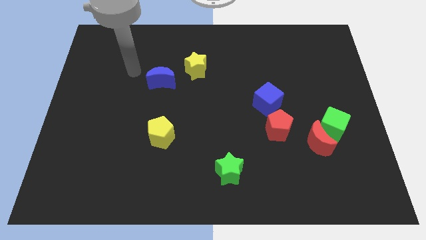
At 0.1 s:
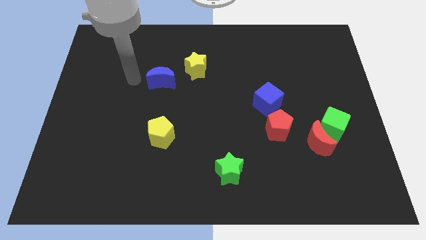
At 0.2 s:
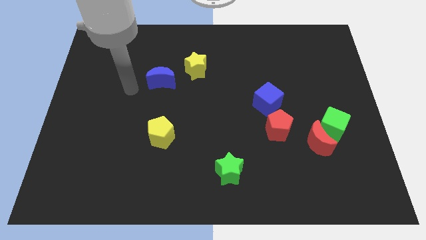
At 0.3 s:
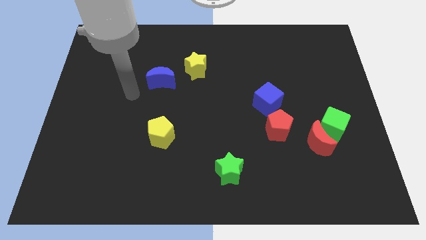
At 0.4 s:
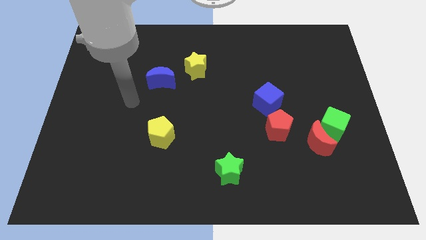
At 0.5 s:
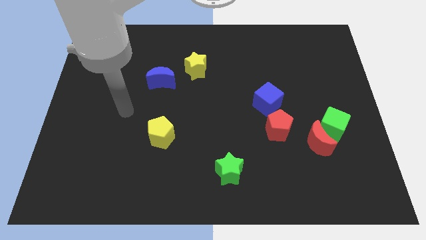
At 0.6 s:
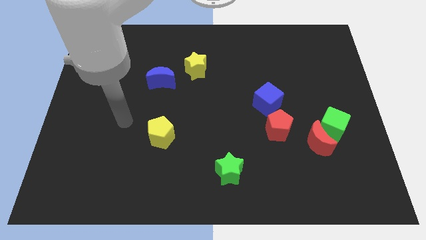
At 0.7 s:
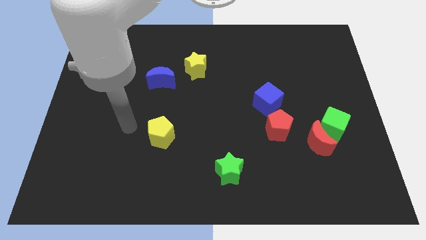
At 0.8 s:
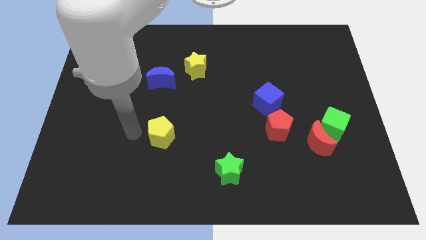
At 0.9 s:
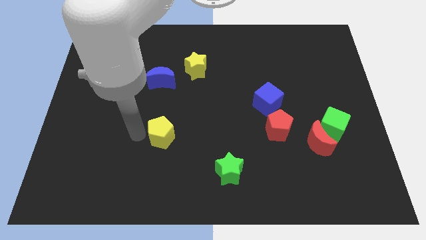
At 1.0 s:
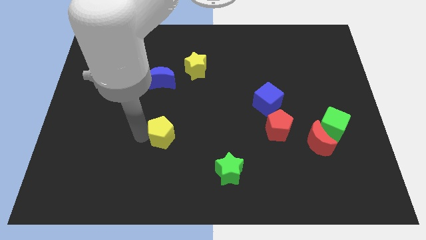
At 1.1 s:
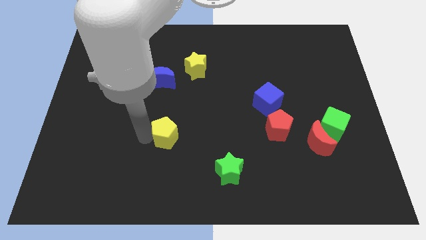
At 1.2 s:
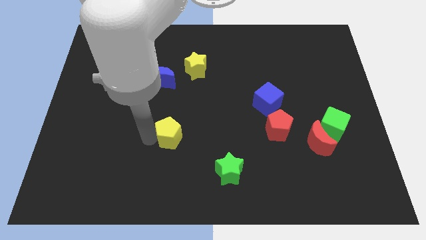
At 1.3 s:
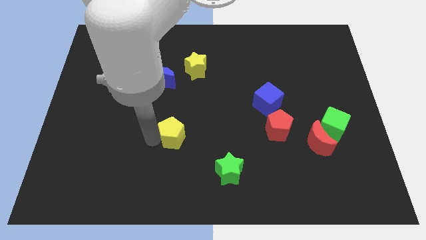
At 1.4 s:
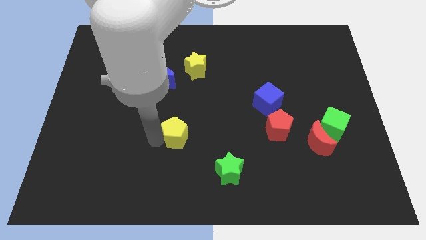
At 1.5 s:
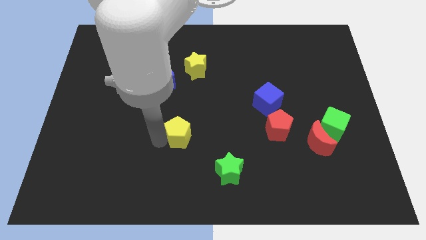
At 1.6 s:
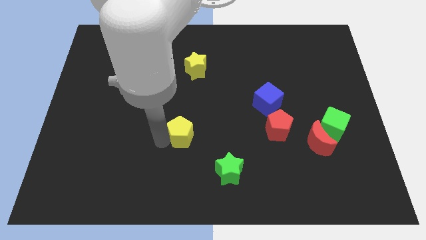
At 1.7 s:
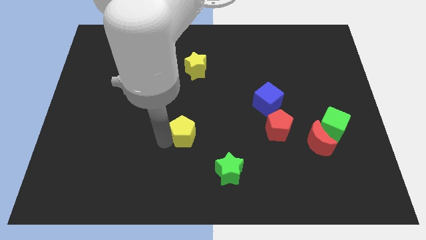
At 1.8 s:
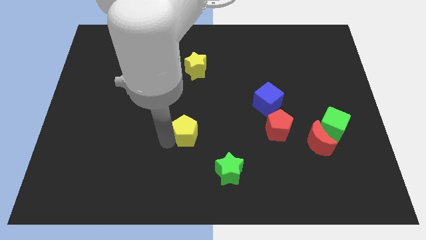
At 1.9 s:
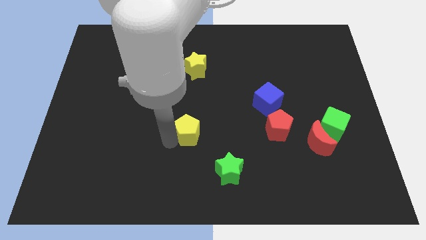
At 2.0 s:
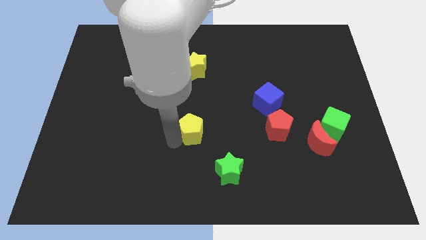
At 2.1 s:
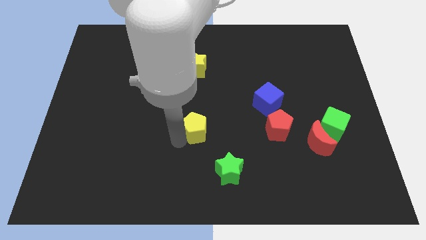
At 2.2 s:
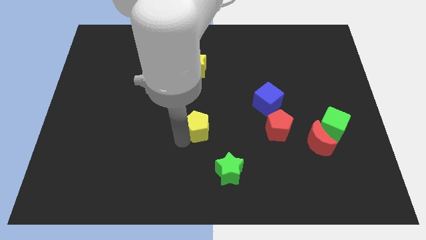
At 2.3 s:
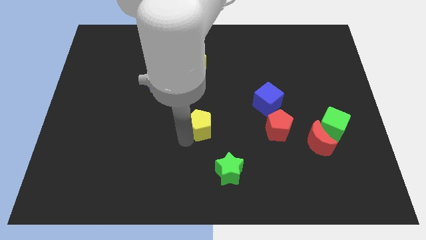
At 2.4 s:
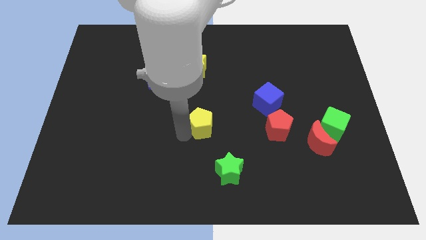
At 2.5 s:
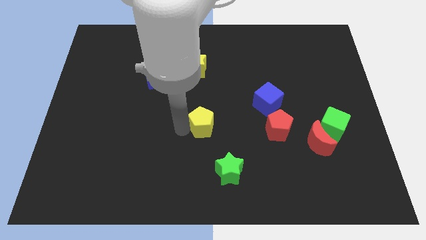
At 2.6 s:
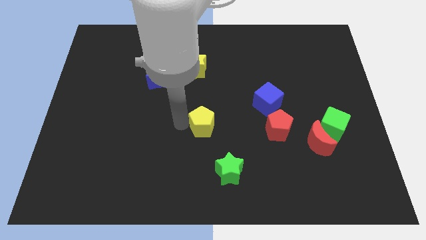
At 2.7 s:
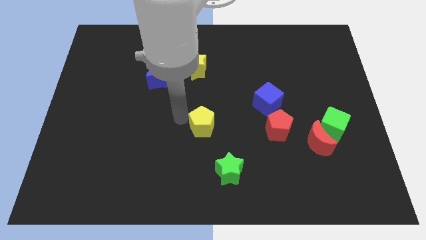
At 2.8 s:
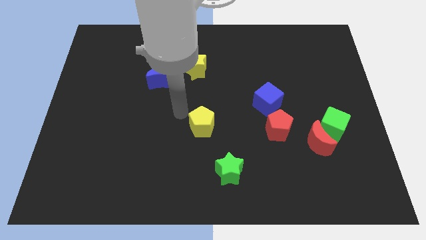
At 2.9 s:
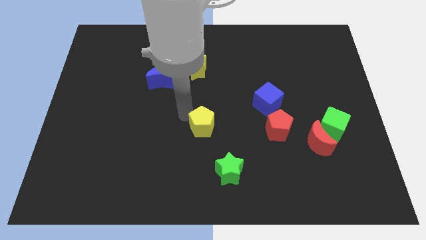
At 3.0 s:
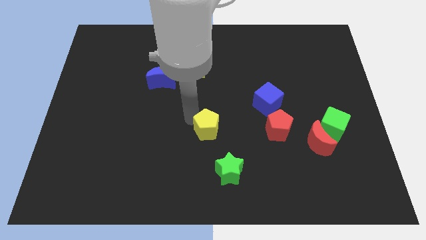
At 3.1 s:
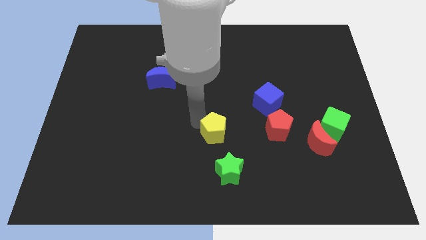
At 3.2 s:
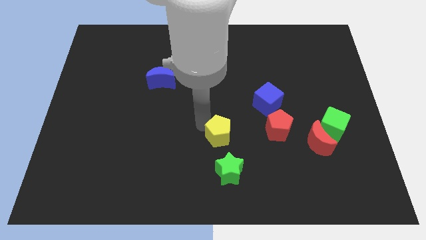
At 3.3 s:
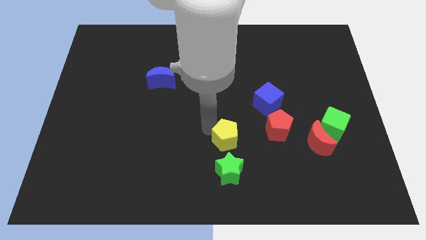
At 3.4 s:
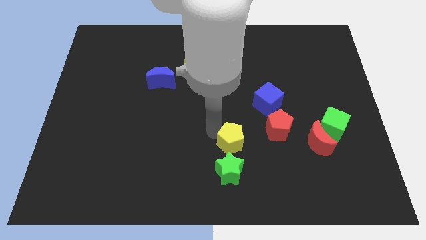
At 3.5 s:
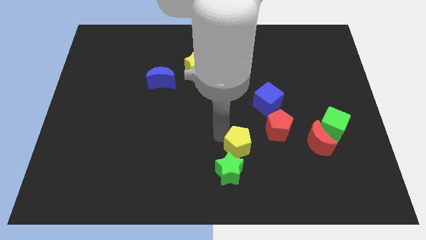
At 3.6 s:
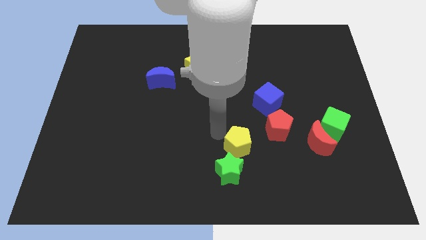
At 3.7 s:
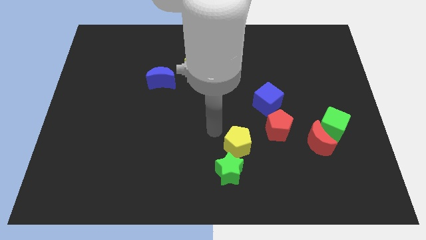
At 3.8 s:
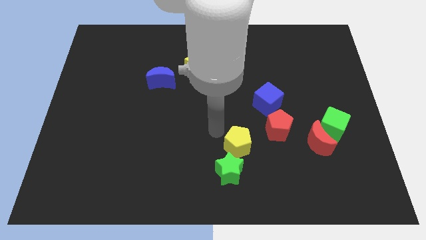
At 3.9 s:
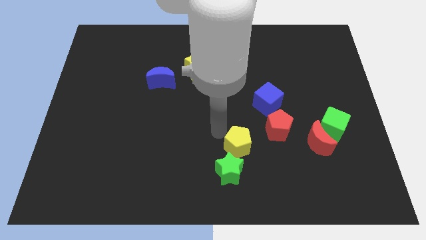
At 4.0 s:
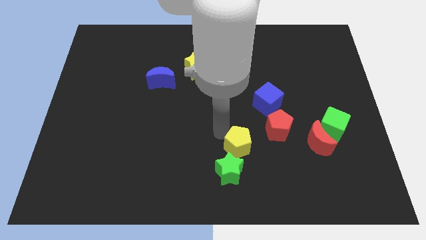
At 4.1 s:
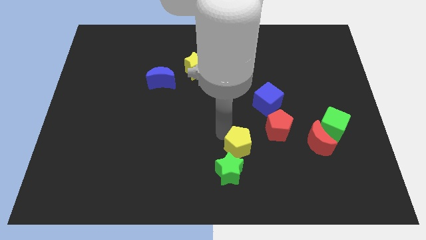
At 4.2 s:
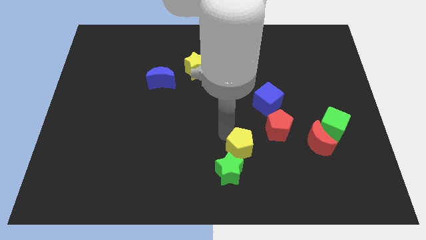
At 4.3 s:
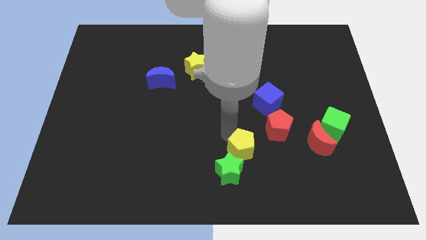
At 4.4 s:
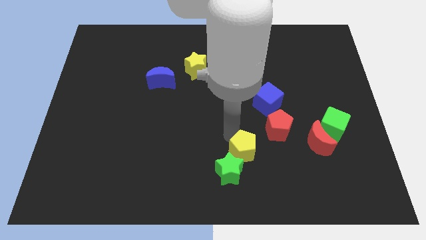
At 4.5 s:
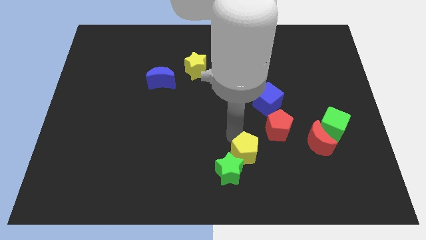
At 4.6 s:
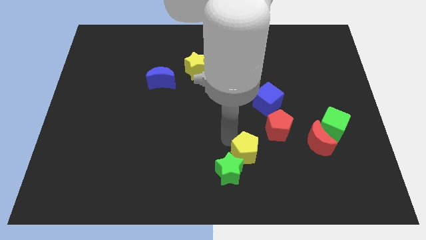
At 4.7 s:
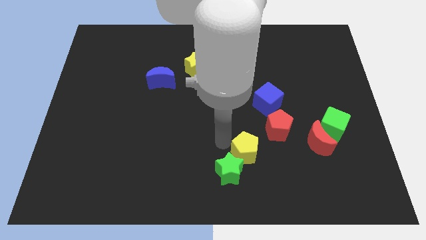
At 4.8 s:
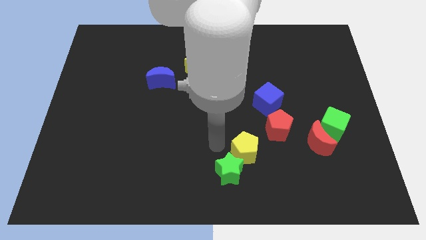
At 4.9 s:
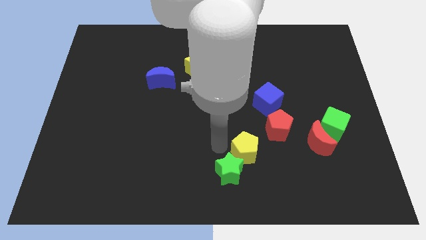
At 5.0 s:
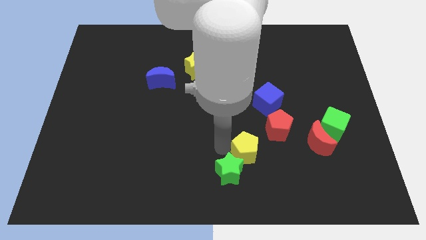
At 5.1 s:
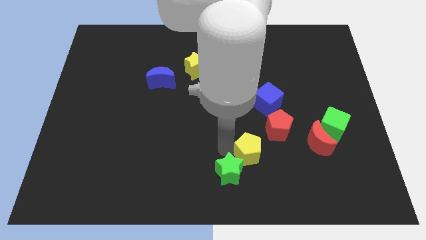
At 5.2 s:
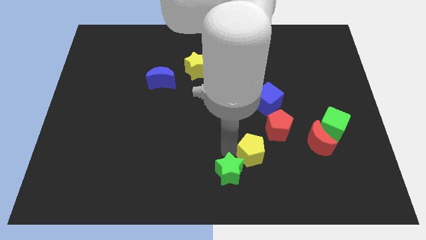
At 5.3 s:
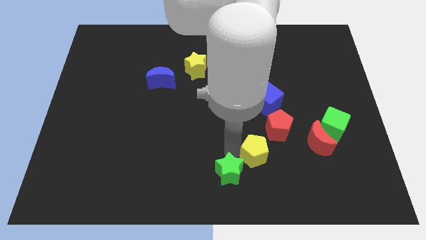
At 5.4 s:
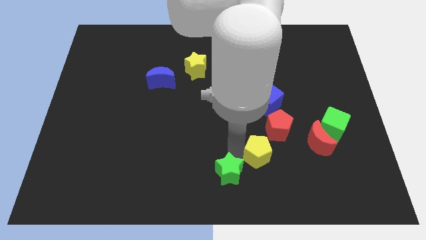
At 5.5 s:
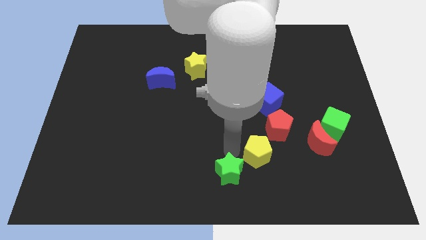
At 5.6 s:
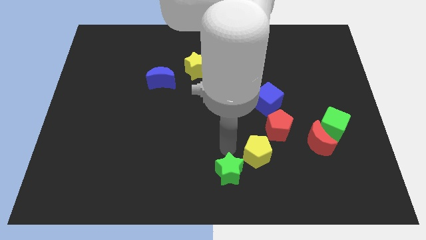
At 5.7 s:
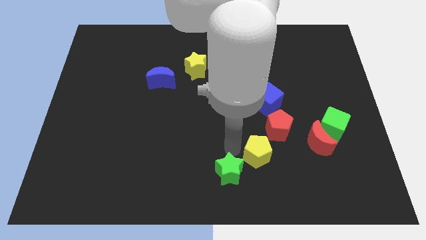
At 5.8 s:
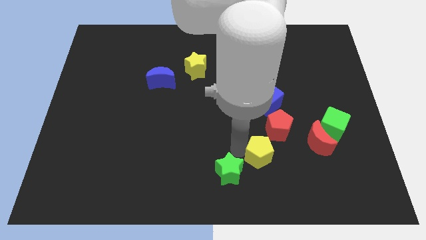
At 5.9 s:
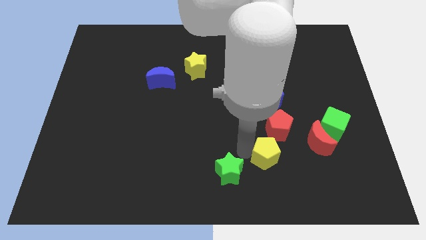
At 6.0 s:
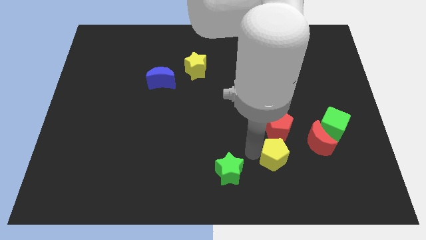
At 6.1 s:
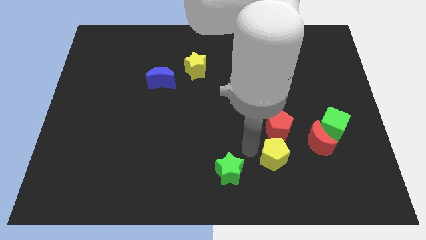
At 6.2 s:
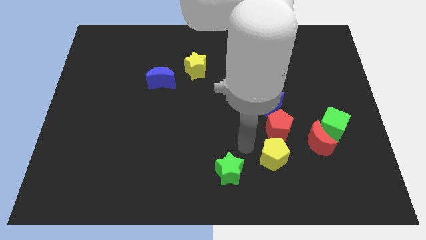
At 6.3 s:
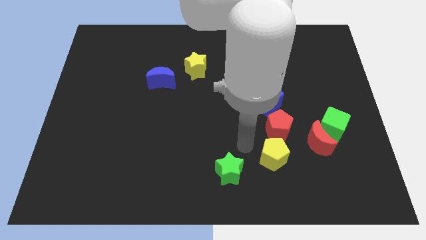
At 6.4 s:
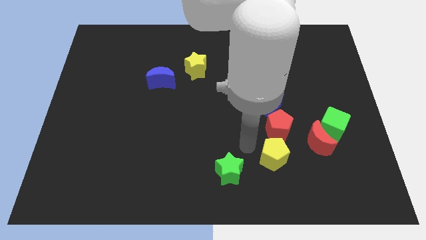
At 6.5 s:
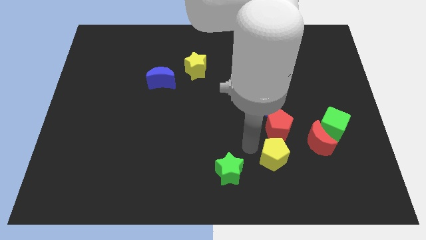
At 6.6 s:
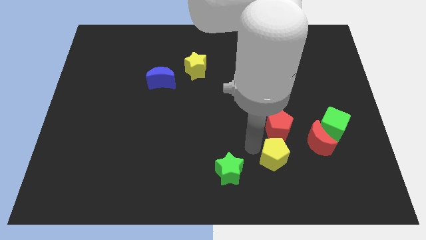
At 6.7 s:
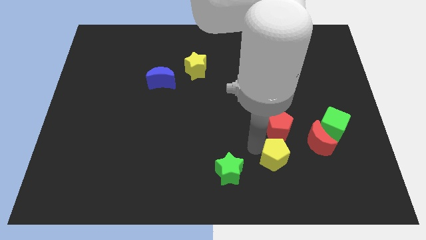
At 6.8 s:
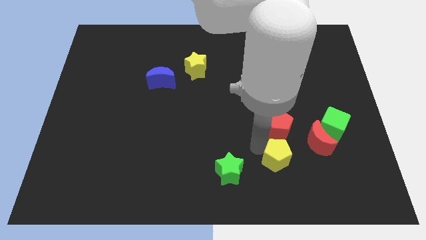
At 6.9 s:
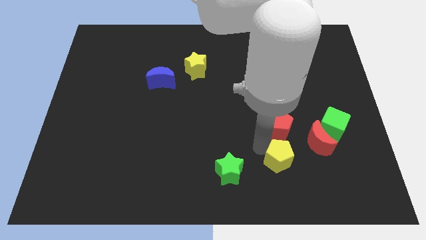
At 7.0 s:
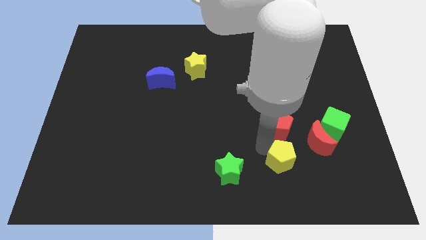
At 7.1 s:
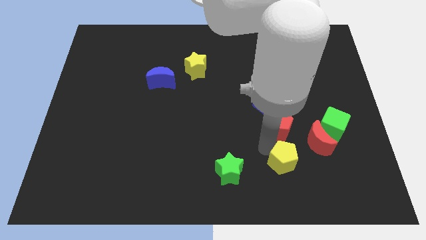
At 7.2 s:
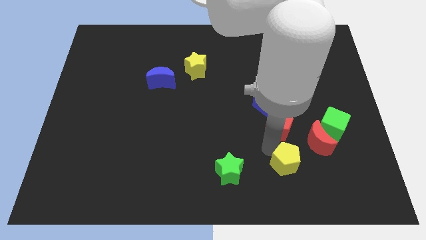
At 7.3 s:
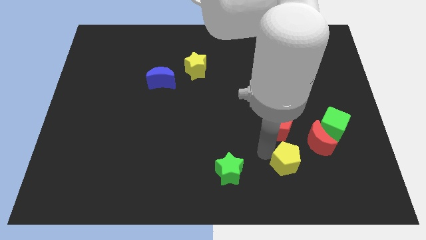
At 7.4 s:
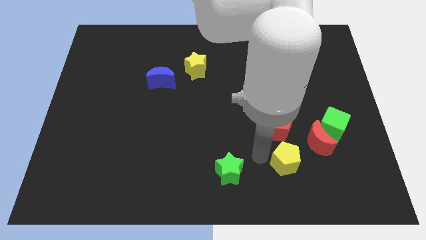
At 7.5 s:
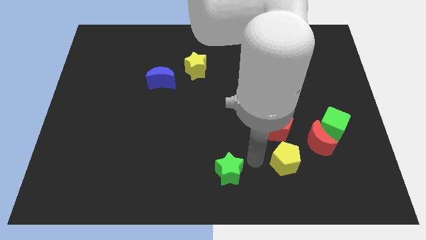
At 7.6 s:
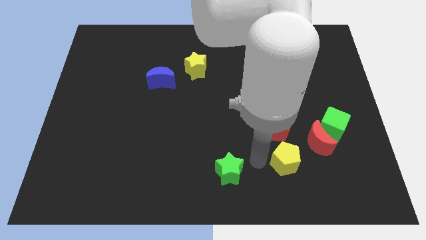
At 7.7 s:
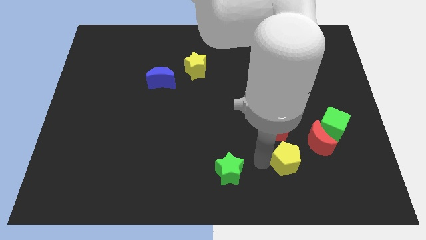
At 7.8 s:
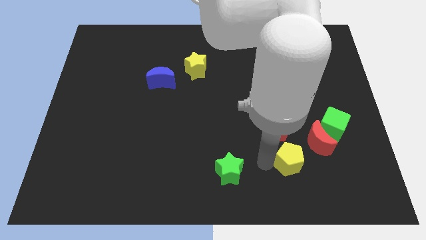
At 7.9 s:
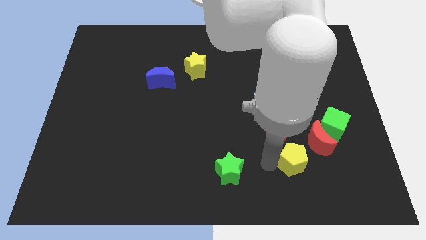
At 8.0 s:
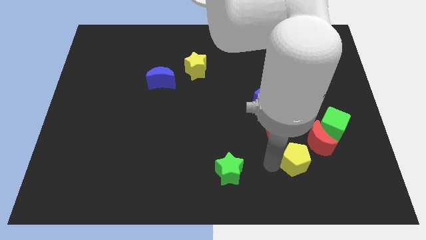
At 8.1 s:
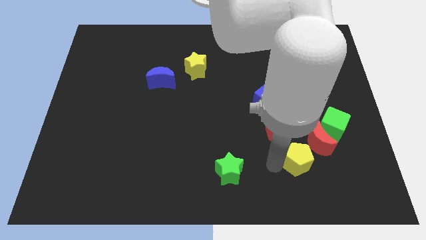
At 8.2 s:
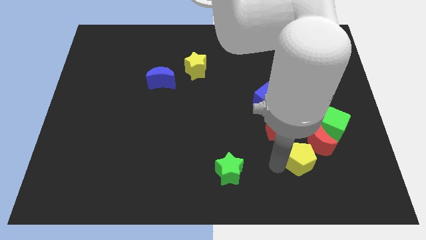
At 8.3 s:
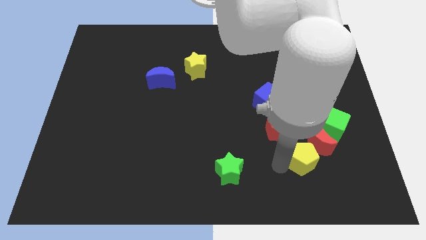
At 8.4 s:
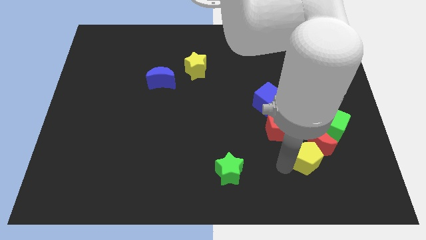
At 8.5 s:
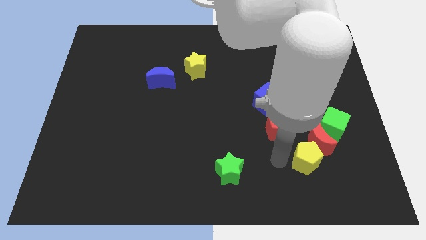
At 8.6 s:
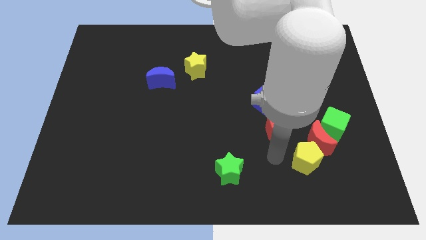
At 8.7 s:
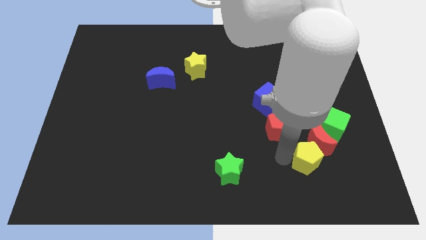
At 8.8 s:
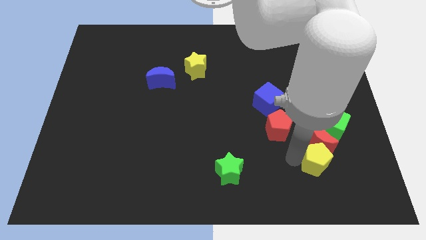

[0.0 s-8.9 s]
slide the yellow pentagon diagonally down and to the right of the red moon
